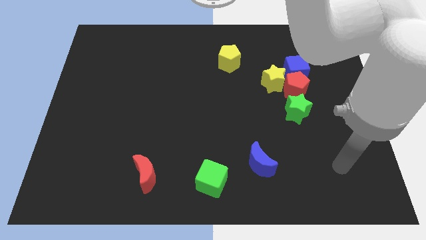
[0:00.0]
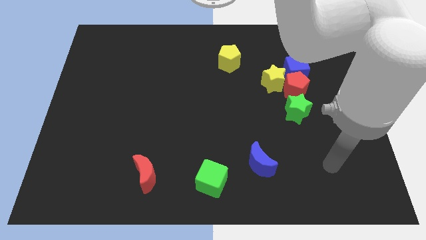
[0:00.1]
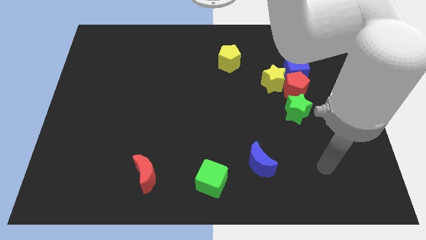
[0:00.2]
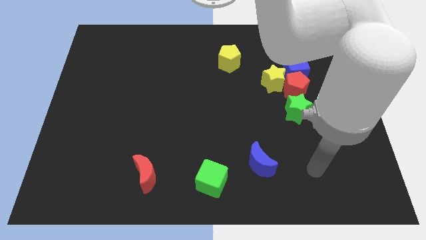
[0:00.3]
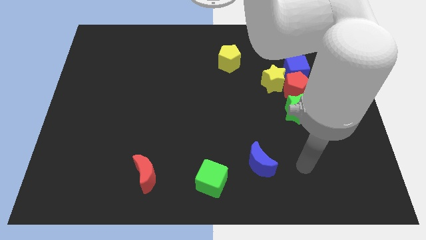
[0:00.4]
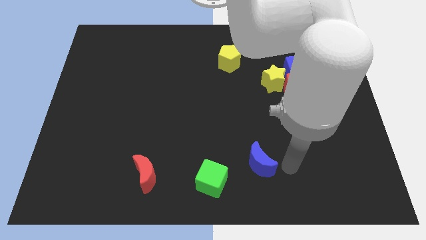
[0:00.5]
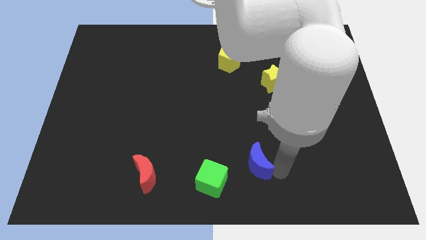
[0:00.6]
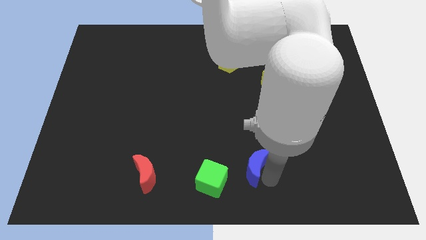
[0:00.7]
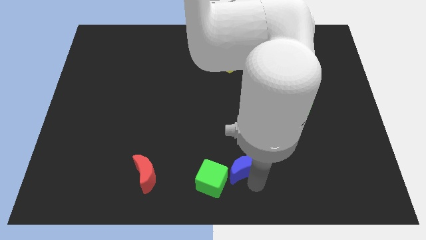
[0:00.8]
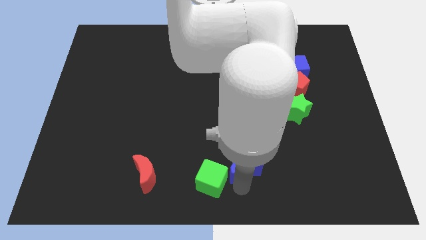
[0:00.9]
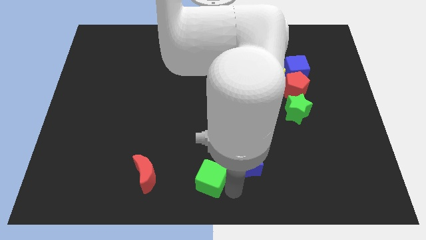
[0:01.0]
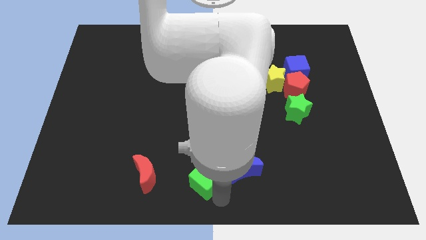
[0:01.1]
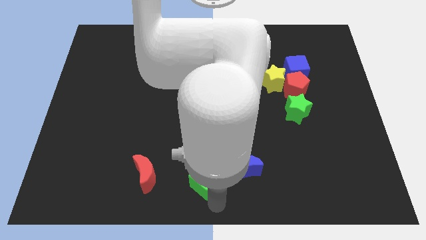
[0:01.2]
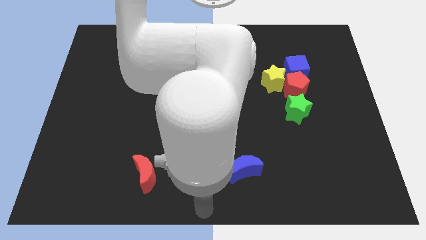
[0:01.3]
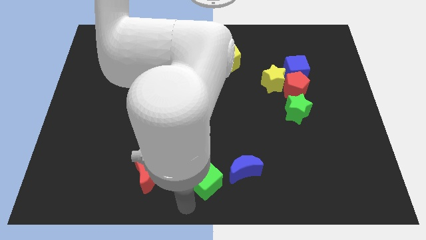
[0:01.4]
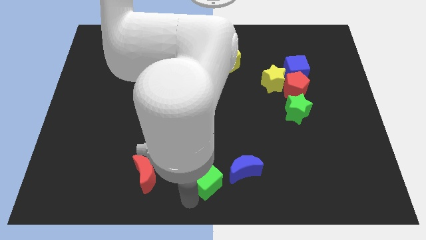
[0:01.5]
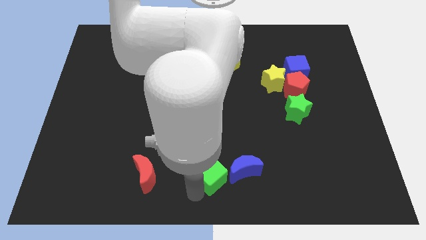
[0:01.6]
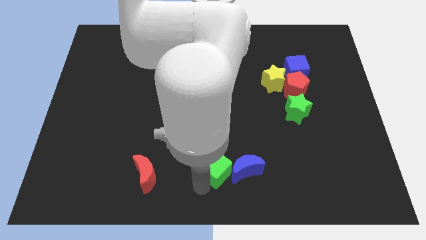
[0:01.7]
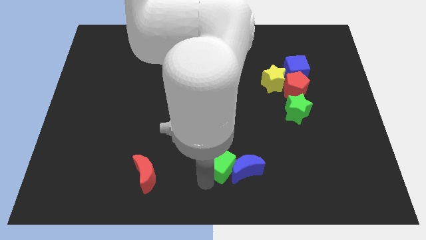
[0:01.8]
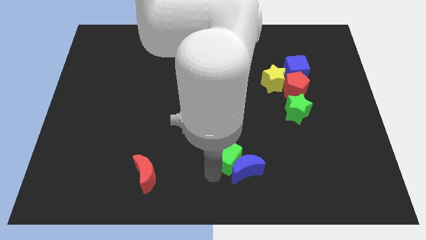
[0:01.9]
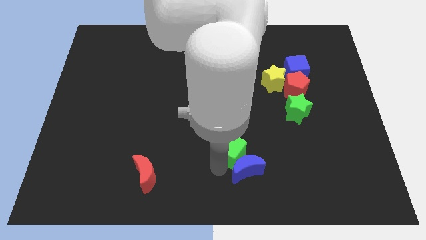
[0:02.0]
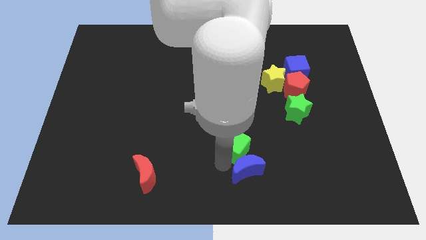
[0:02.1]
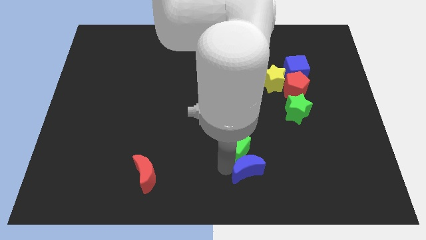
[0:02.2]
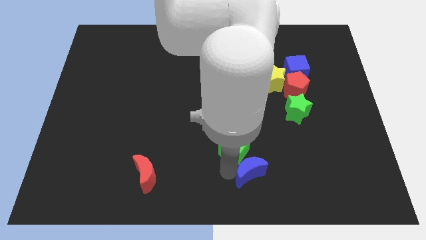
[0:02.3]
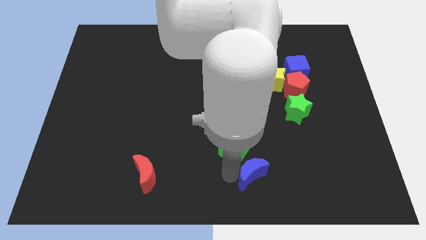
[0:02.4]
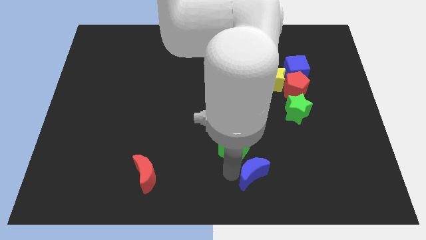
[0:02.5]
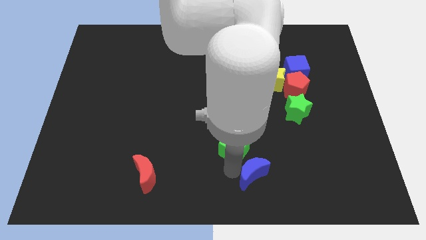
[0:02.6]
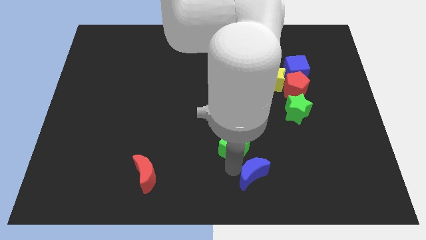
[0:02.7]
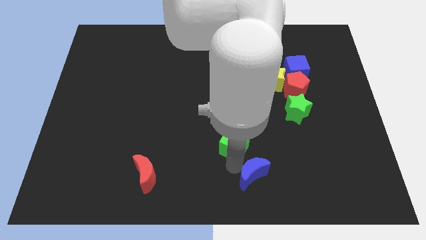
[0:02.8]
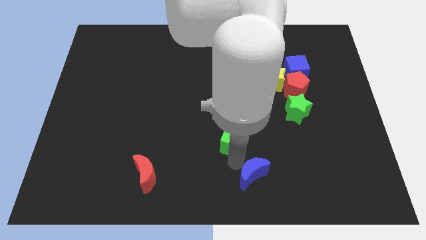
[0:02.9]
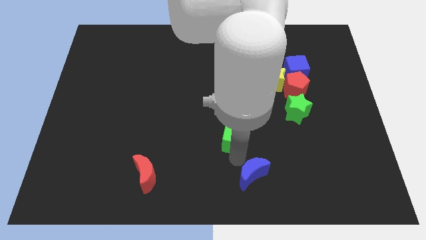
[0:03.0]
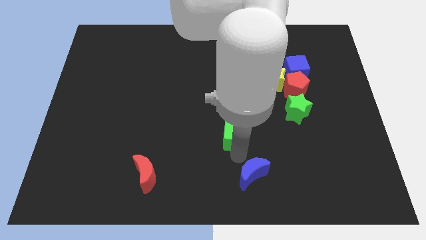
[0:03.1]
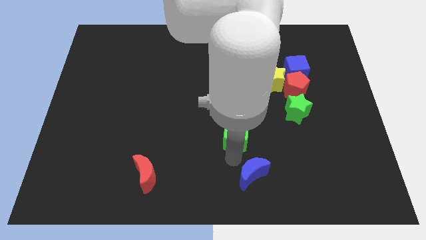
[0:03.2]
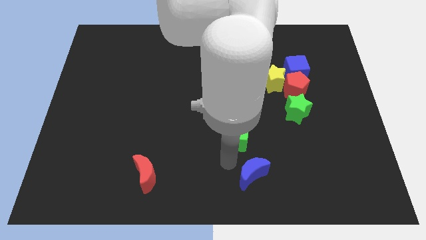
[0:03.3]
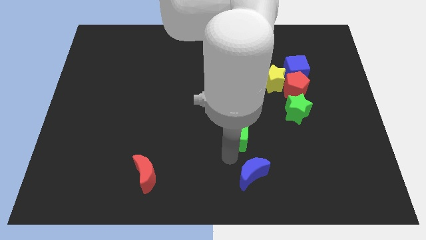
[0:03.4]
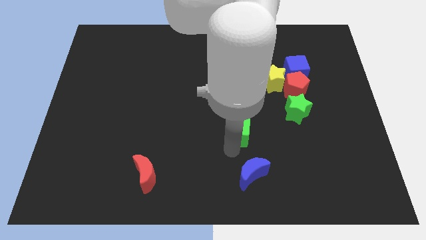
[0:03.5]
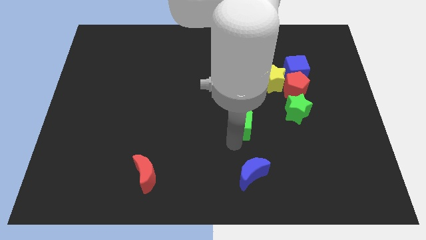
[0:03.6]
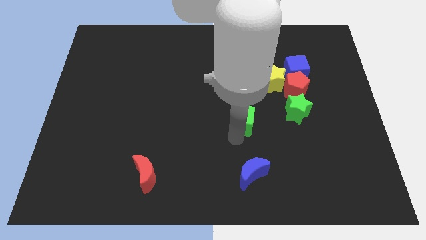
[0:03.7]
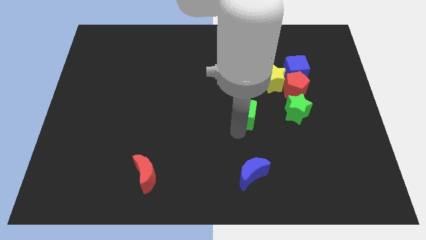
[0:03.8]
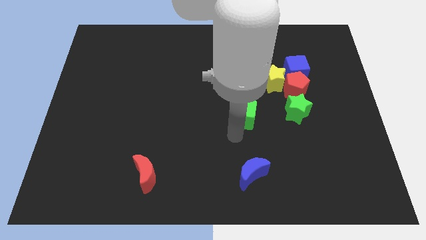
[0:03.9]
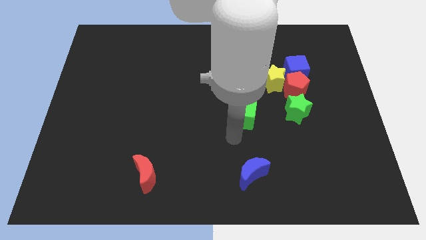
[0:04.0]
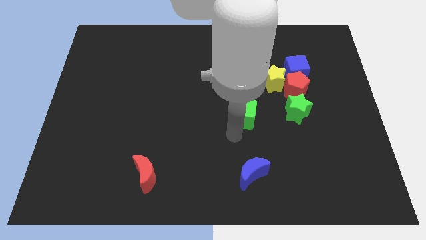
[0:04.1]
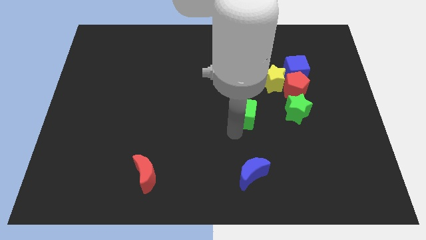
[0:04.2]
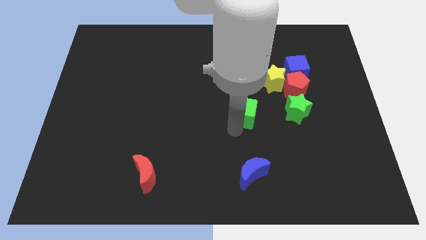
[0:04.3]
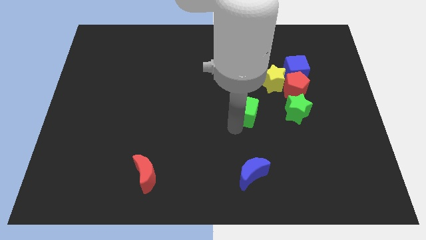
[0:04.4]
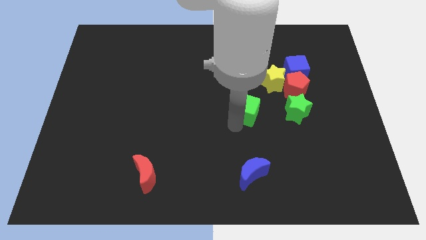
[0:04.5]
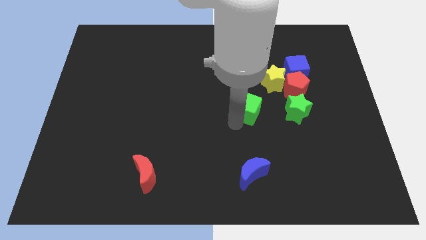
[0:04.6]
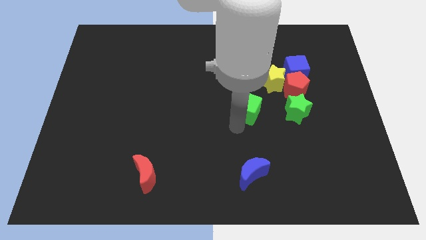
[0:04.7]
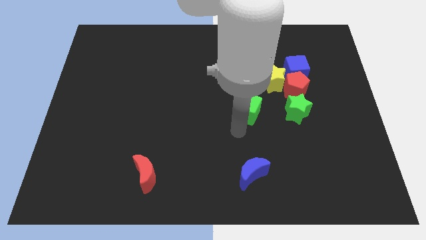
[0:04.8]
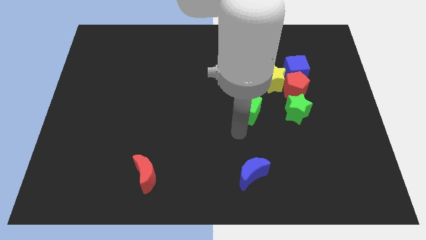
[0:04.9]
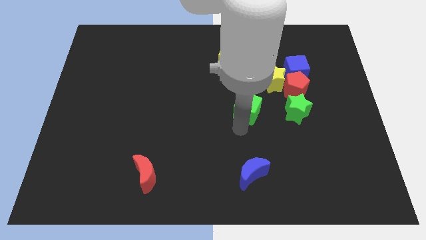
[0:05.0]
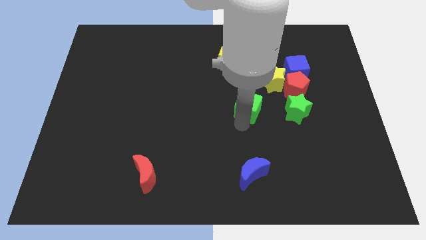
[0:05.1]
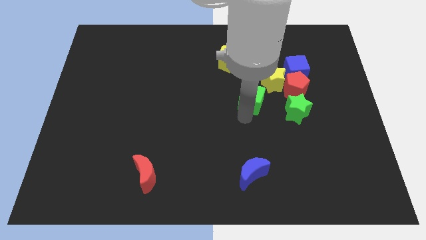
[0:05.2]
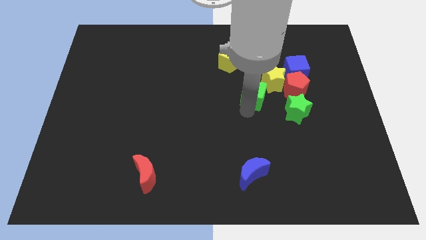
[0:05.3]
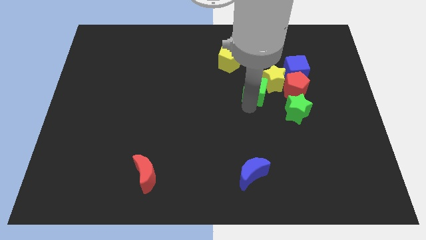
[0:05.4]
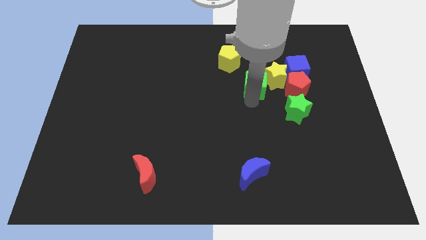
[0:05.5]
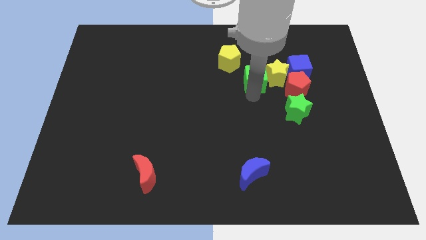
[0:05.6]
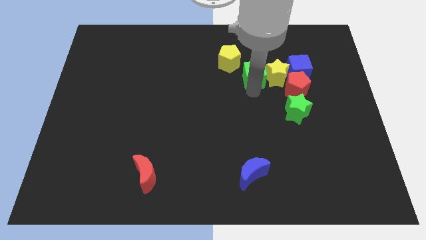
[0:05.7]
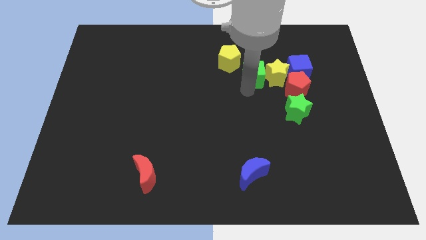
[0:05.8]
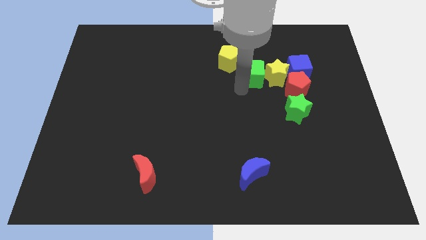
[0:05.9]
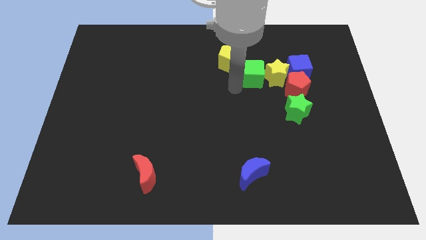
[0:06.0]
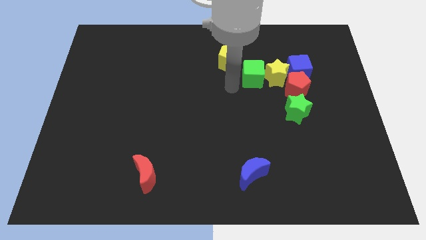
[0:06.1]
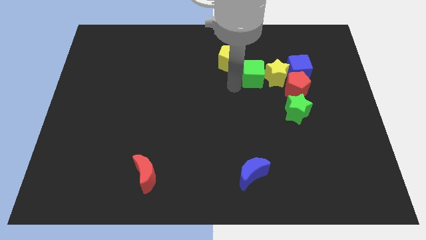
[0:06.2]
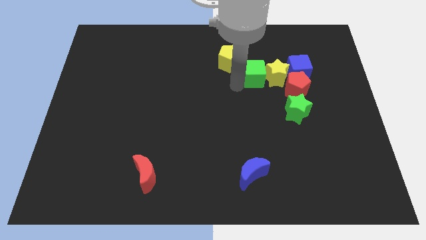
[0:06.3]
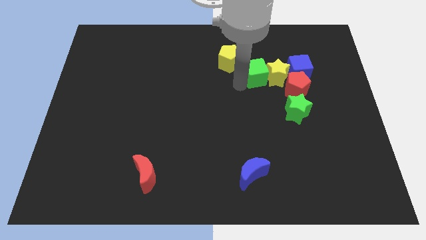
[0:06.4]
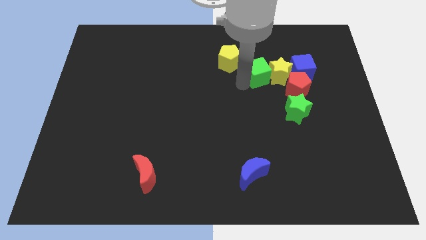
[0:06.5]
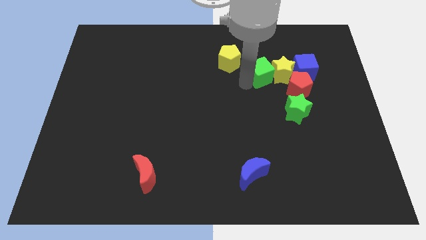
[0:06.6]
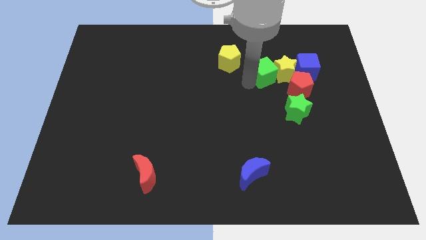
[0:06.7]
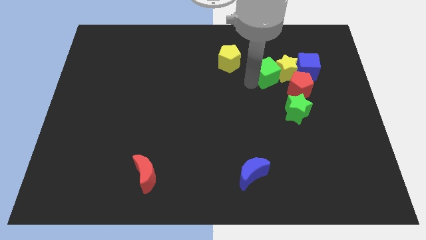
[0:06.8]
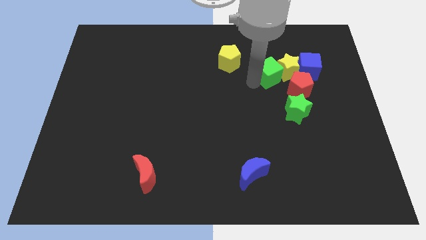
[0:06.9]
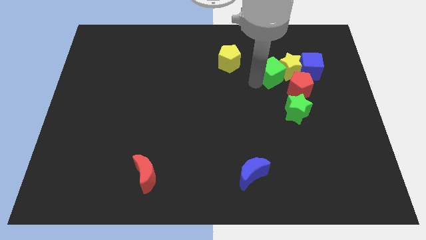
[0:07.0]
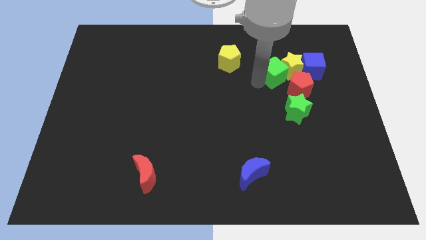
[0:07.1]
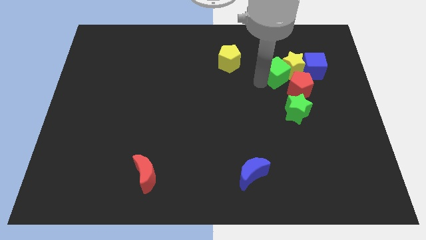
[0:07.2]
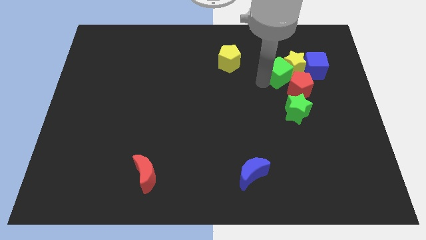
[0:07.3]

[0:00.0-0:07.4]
slide the green cube to the top of the red pentagon
